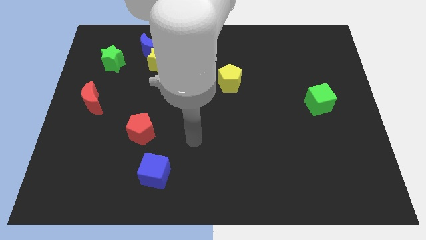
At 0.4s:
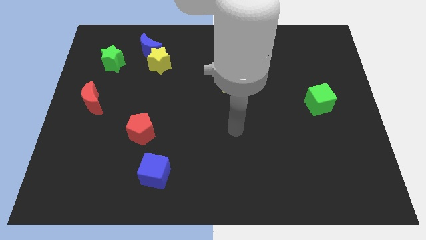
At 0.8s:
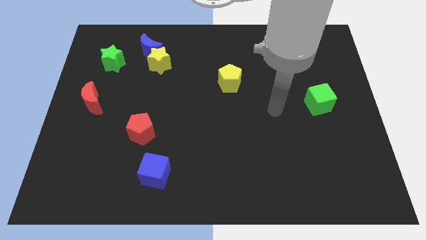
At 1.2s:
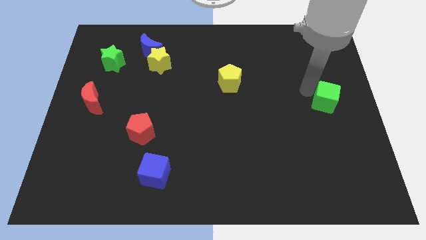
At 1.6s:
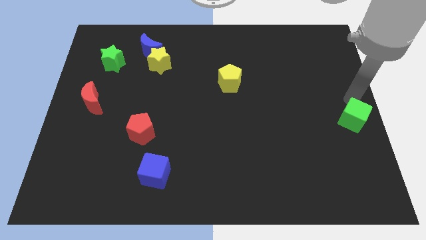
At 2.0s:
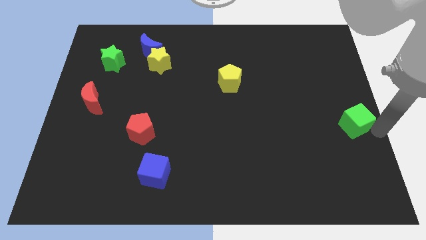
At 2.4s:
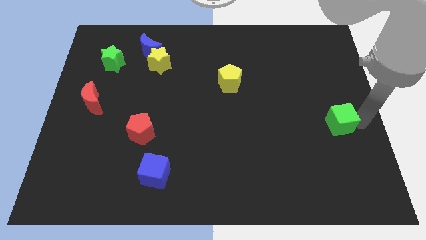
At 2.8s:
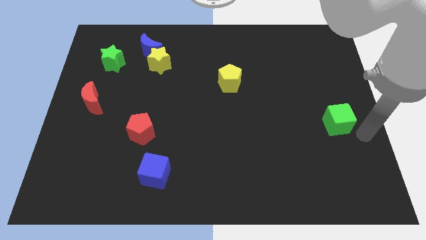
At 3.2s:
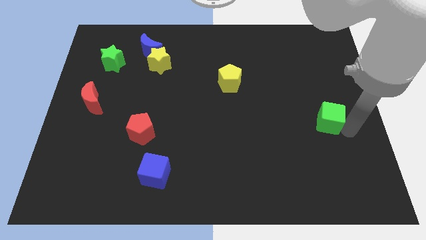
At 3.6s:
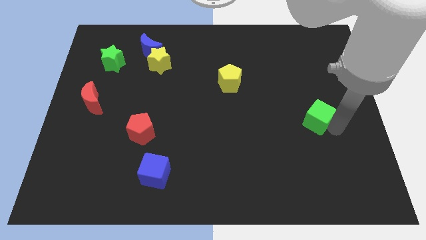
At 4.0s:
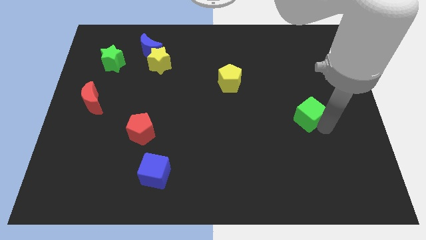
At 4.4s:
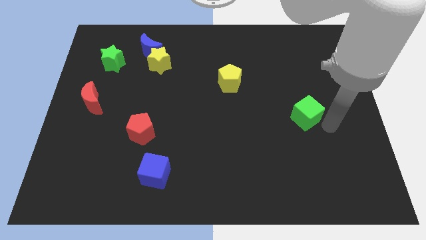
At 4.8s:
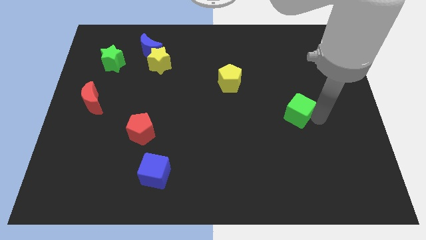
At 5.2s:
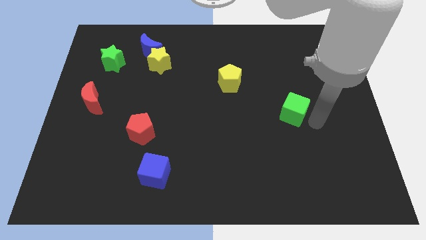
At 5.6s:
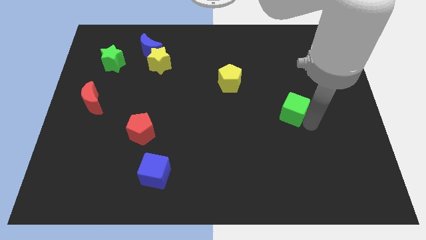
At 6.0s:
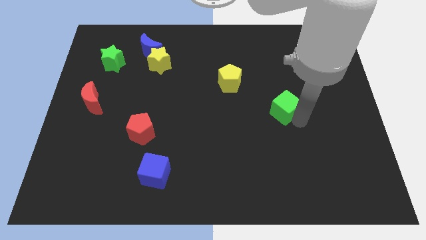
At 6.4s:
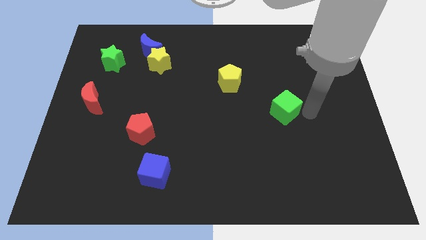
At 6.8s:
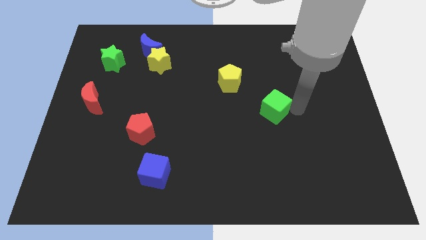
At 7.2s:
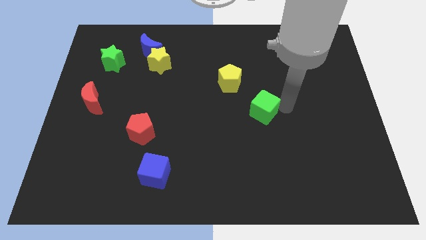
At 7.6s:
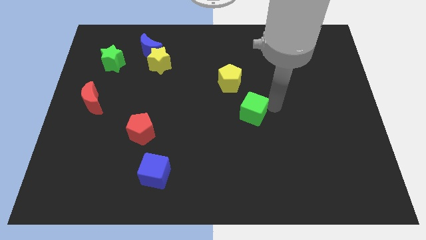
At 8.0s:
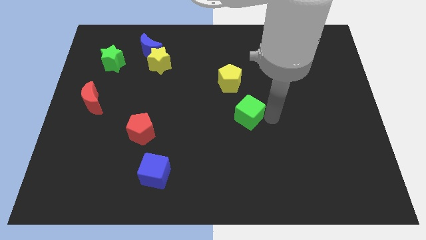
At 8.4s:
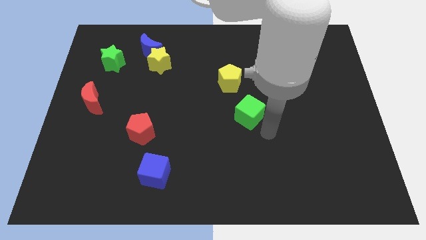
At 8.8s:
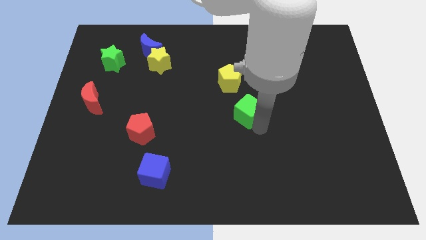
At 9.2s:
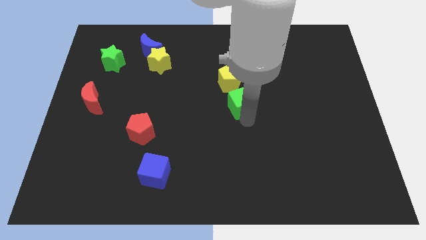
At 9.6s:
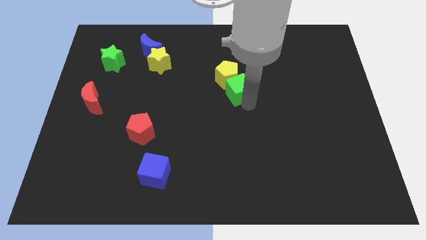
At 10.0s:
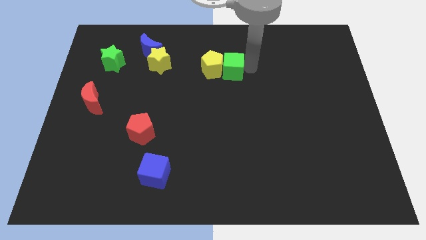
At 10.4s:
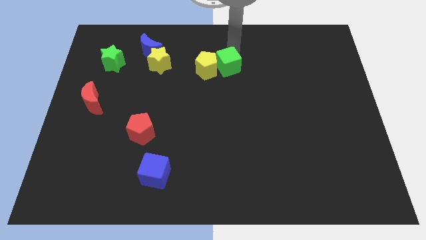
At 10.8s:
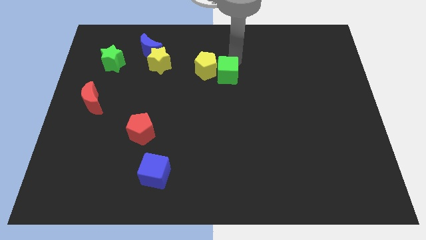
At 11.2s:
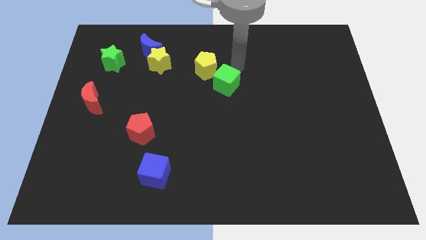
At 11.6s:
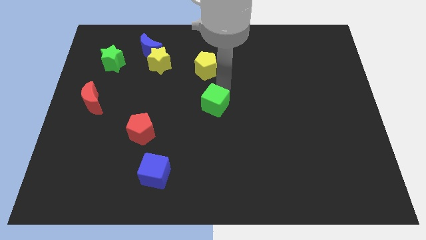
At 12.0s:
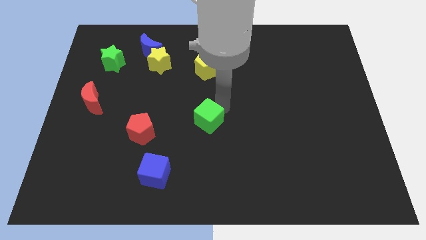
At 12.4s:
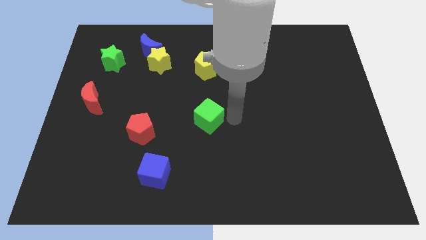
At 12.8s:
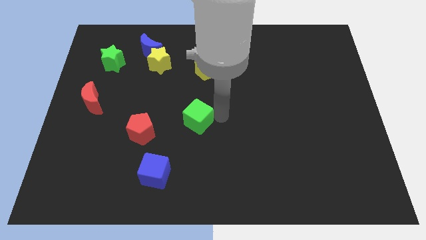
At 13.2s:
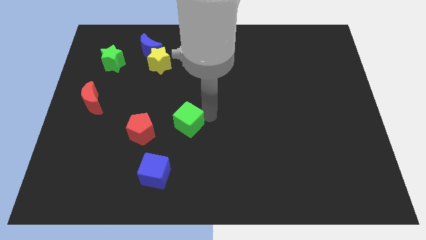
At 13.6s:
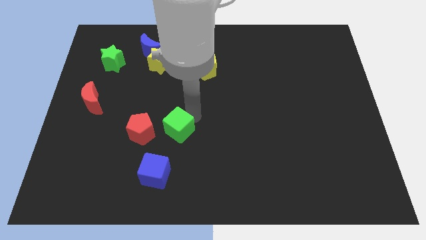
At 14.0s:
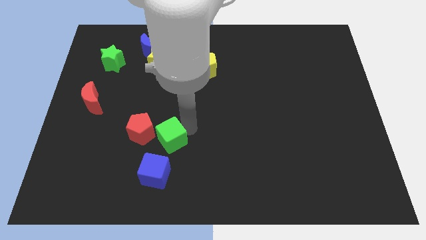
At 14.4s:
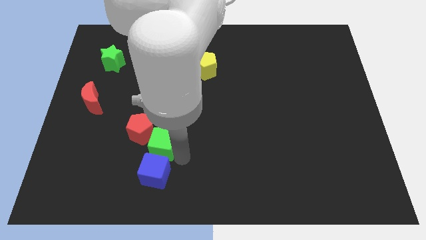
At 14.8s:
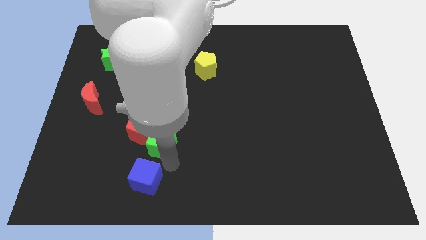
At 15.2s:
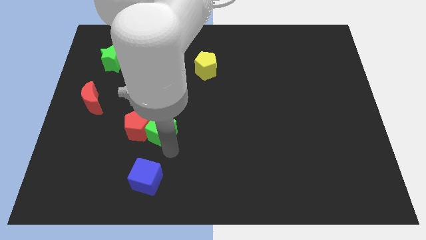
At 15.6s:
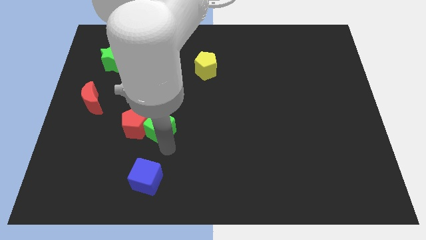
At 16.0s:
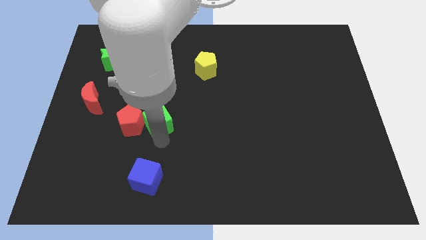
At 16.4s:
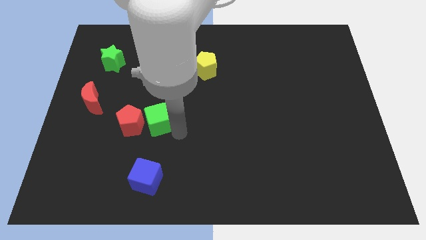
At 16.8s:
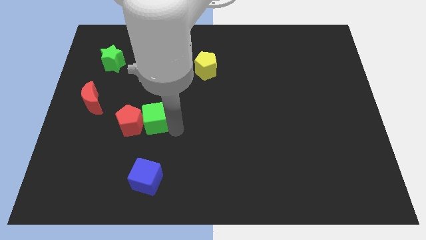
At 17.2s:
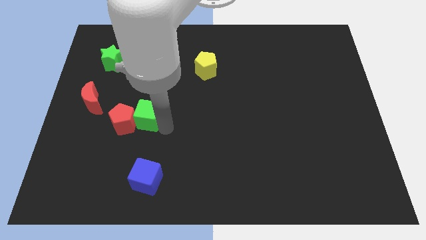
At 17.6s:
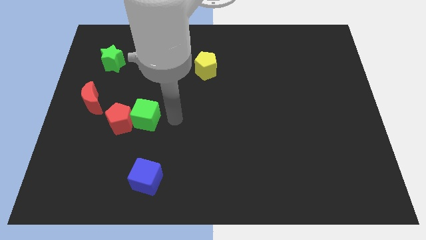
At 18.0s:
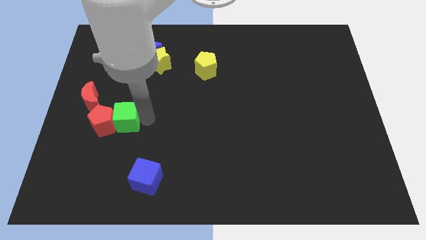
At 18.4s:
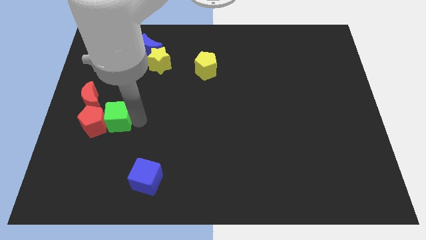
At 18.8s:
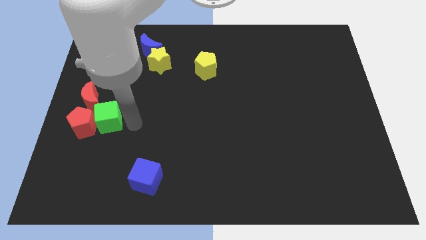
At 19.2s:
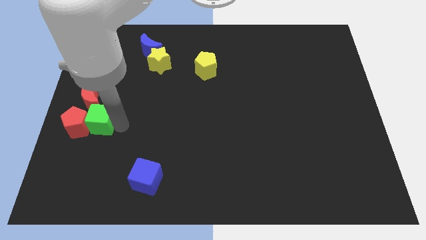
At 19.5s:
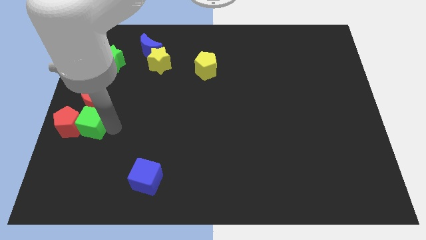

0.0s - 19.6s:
slide the green cube to the left side

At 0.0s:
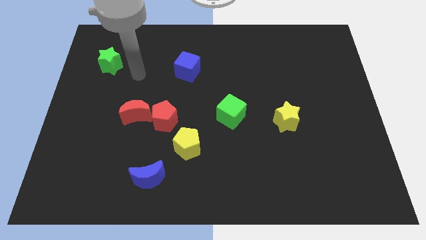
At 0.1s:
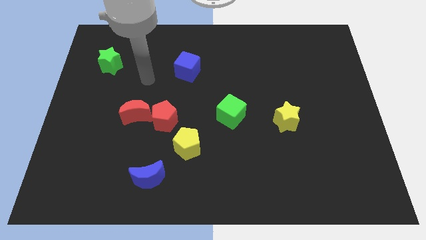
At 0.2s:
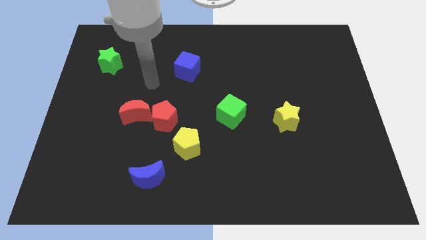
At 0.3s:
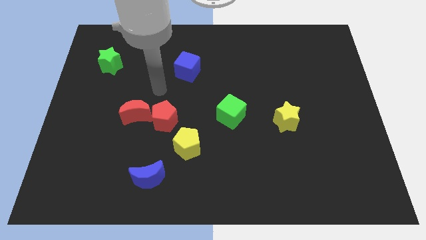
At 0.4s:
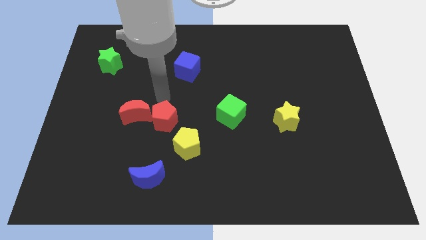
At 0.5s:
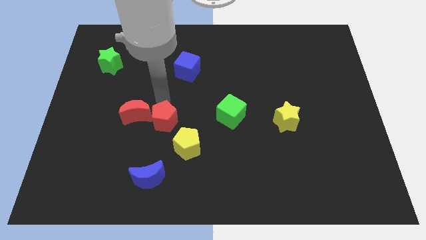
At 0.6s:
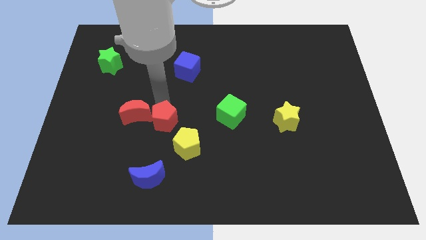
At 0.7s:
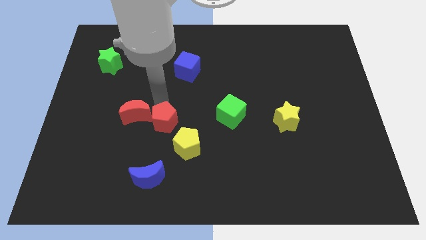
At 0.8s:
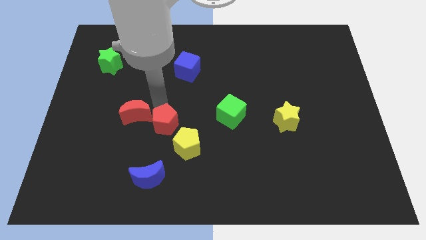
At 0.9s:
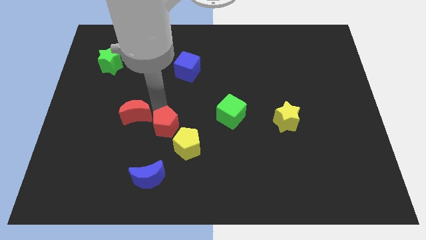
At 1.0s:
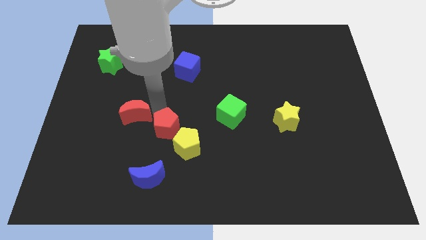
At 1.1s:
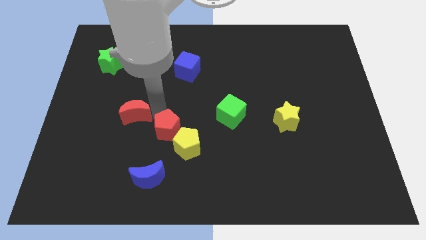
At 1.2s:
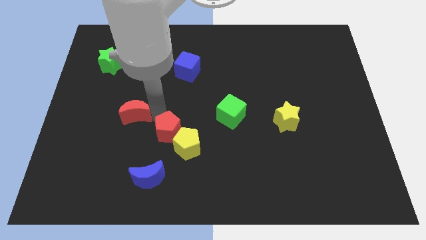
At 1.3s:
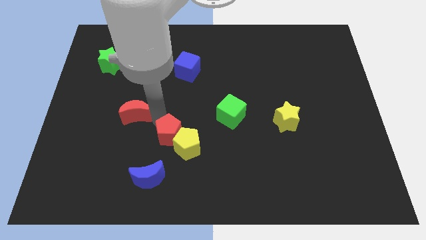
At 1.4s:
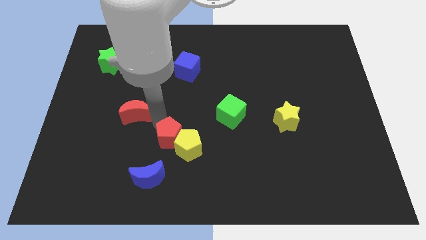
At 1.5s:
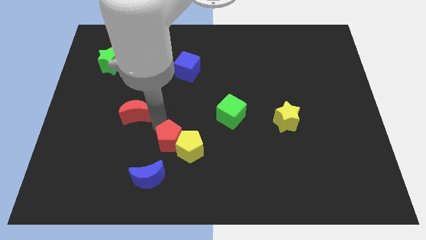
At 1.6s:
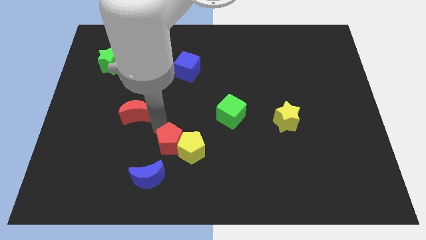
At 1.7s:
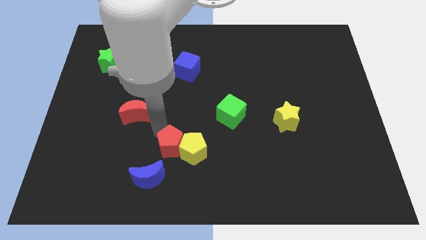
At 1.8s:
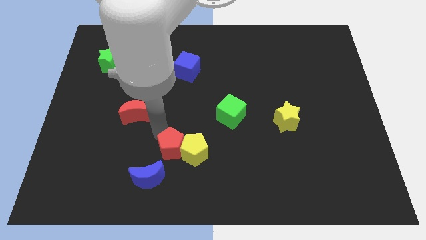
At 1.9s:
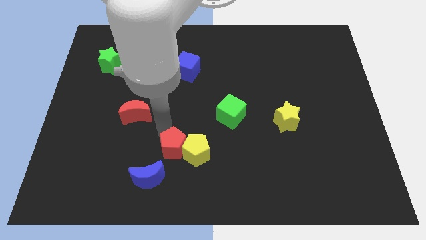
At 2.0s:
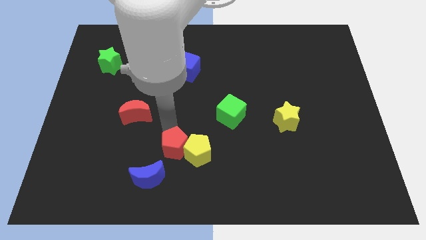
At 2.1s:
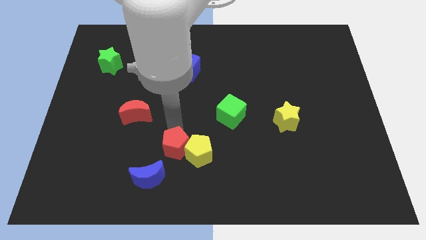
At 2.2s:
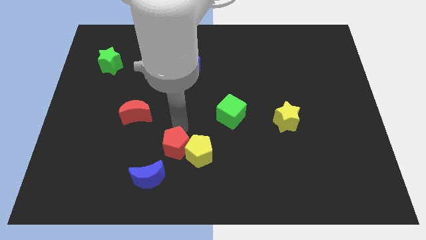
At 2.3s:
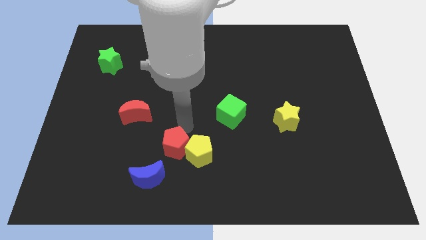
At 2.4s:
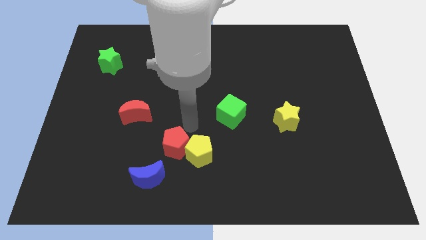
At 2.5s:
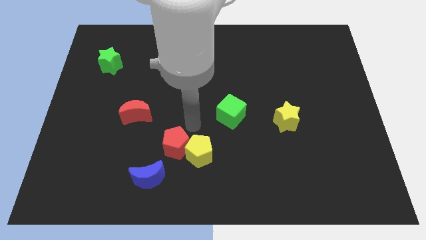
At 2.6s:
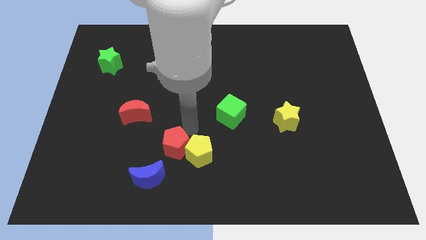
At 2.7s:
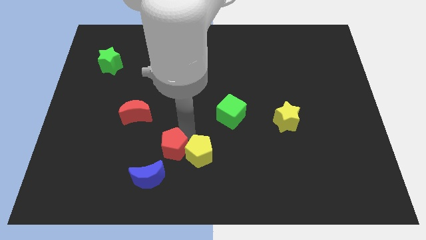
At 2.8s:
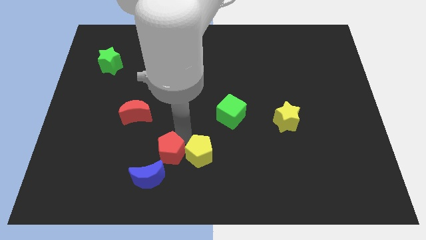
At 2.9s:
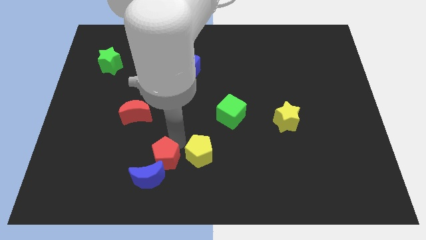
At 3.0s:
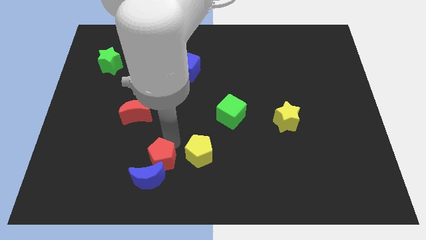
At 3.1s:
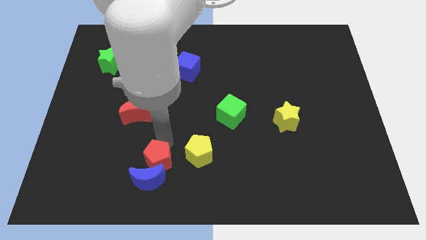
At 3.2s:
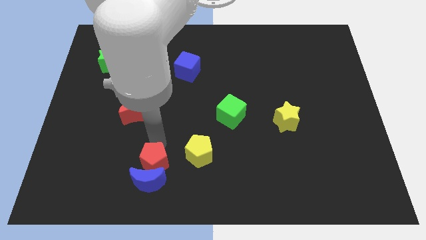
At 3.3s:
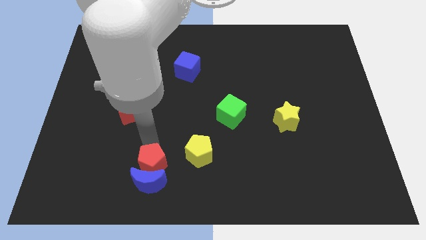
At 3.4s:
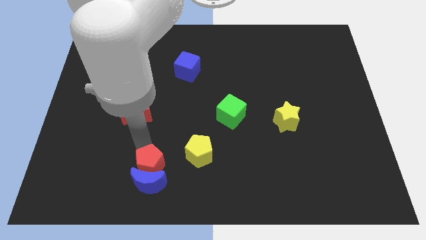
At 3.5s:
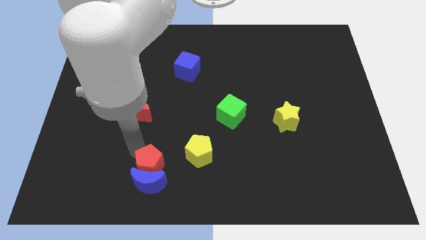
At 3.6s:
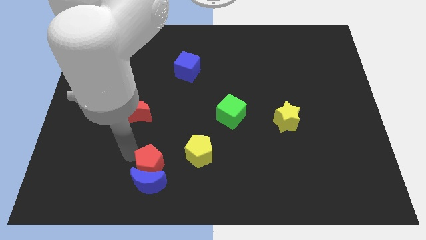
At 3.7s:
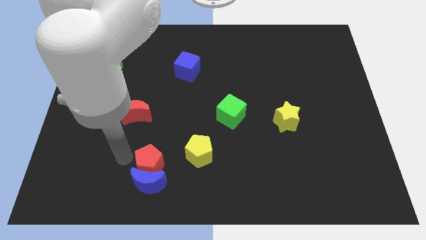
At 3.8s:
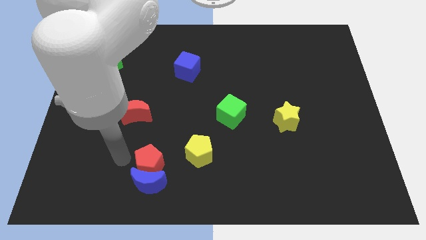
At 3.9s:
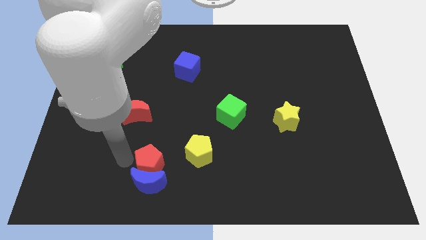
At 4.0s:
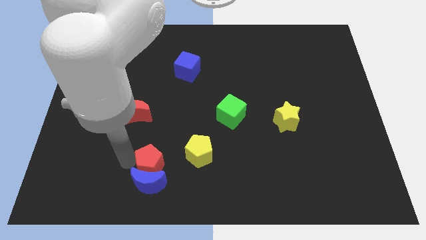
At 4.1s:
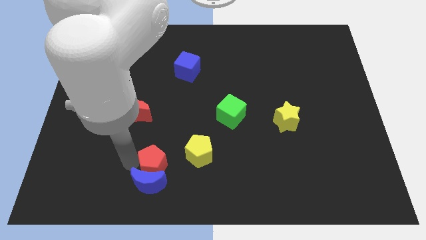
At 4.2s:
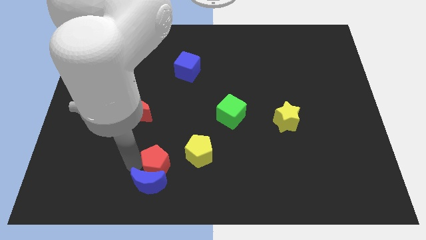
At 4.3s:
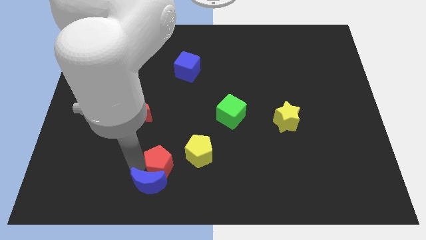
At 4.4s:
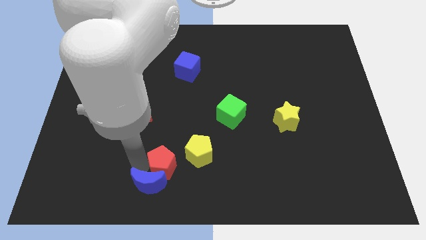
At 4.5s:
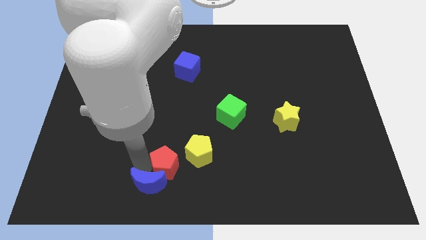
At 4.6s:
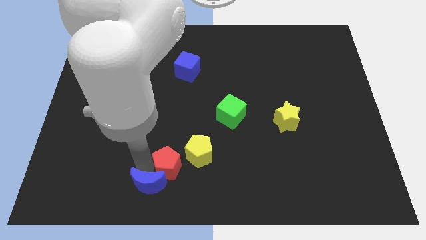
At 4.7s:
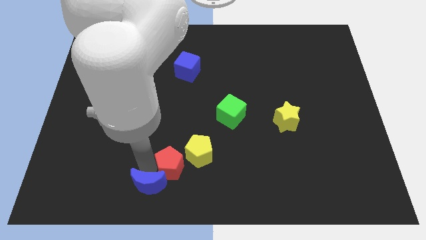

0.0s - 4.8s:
move the red pentagon to the bottom
